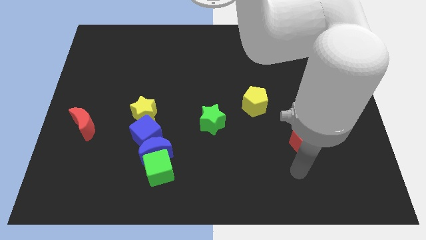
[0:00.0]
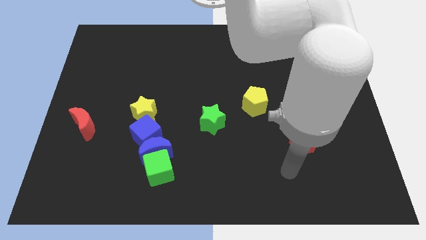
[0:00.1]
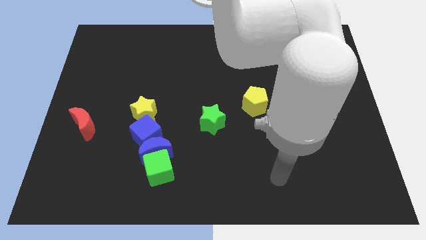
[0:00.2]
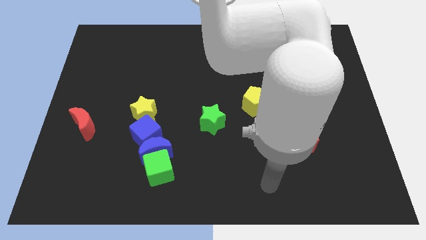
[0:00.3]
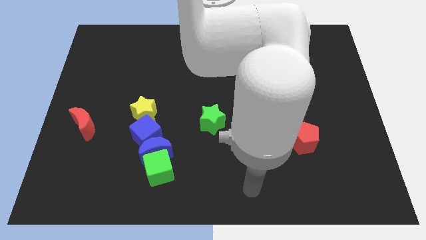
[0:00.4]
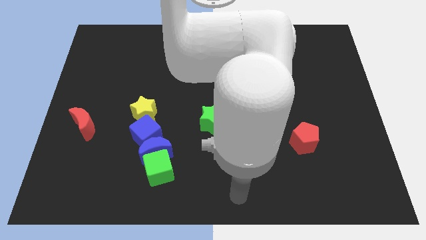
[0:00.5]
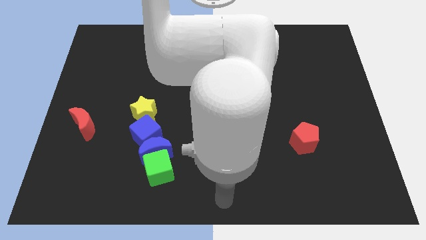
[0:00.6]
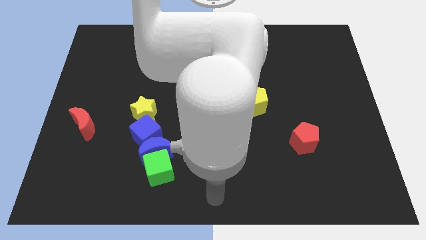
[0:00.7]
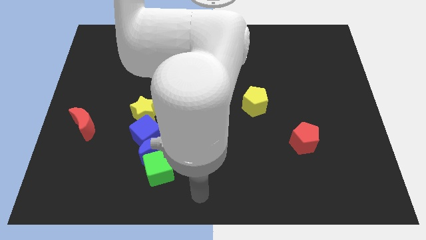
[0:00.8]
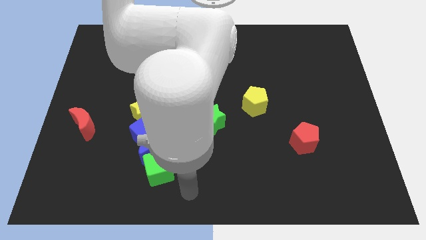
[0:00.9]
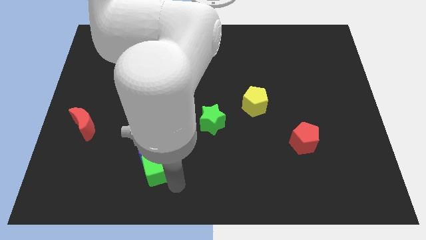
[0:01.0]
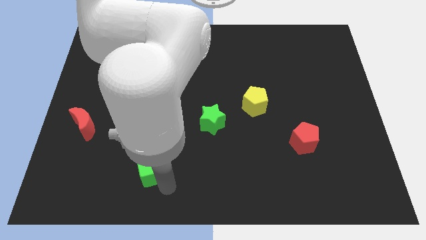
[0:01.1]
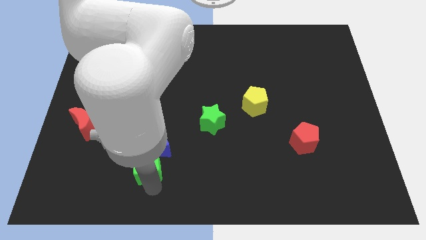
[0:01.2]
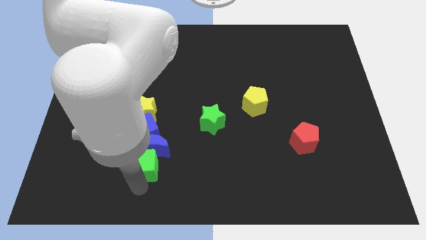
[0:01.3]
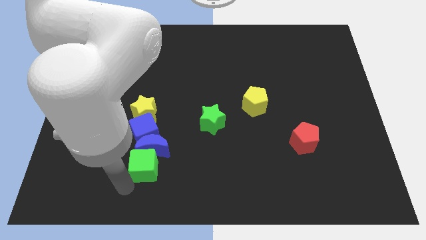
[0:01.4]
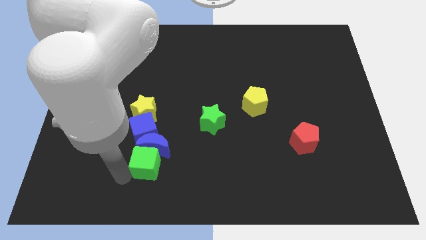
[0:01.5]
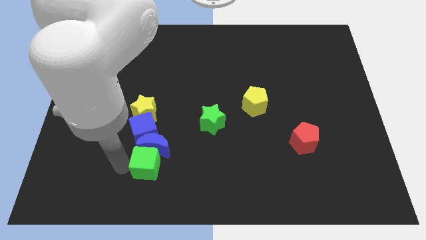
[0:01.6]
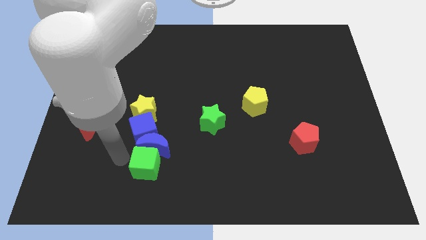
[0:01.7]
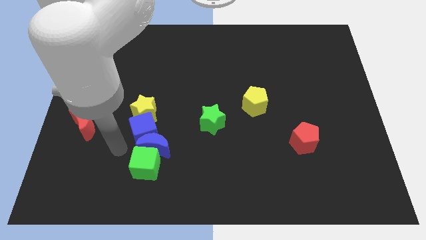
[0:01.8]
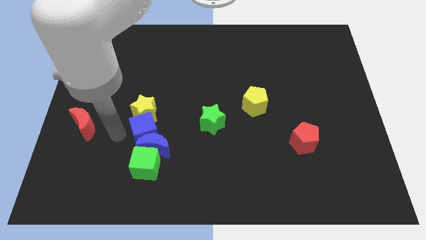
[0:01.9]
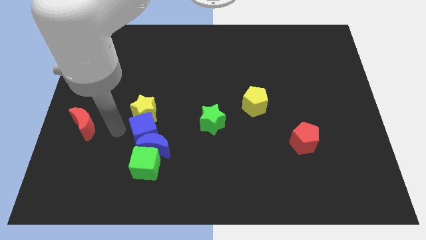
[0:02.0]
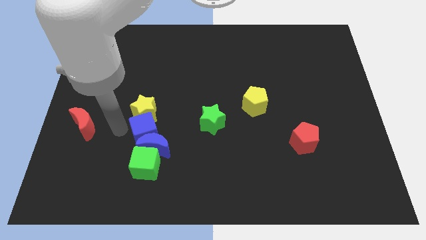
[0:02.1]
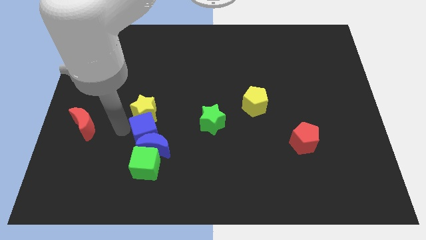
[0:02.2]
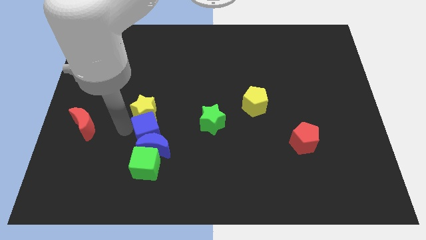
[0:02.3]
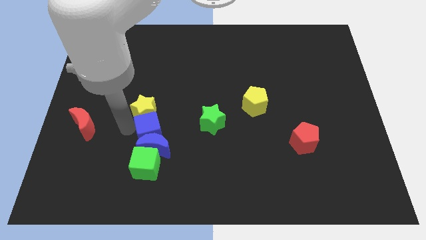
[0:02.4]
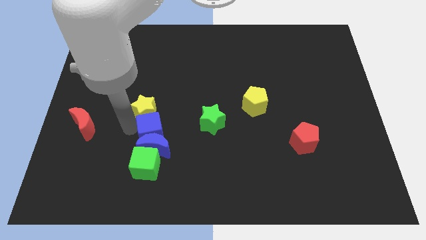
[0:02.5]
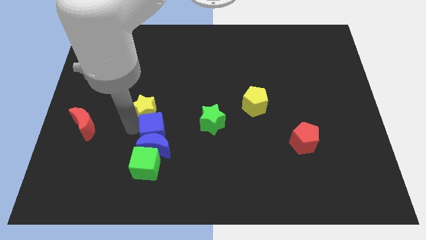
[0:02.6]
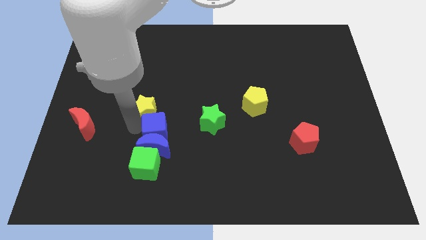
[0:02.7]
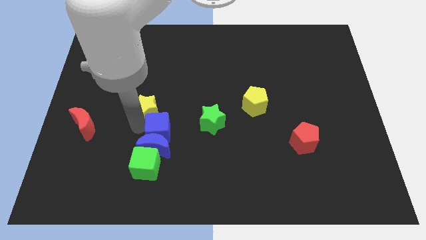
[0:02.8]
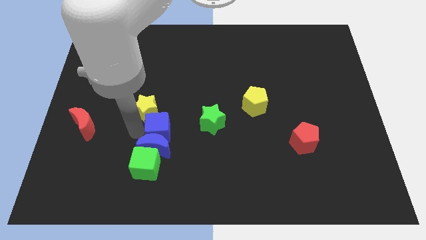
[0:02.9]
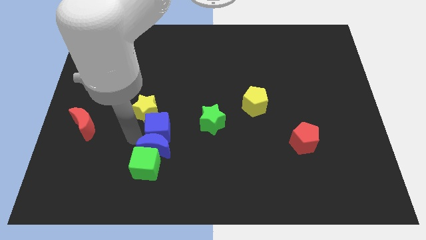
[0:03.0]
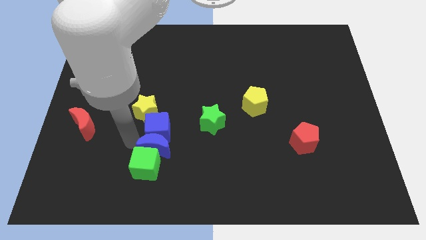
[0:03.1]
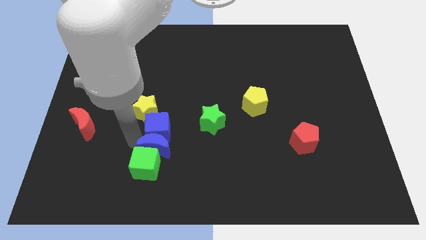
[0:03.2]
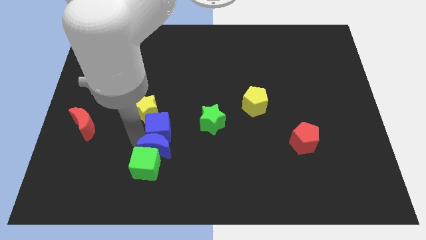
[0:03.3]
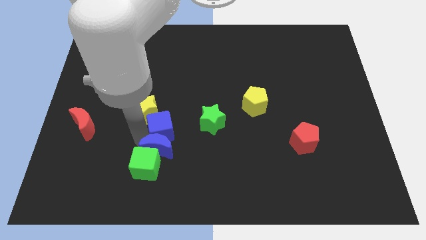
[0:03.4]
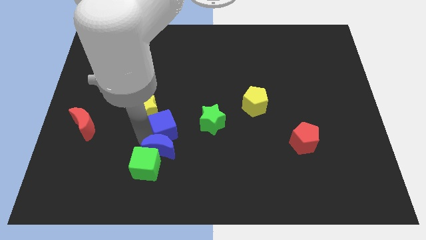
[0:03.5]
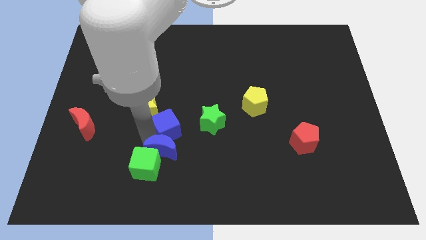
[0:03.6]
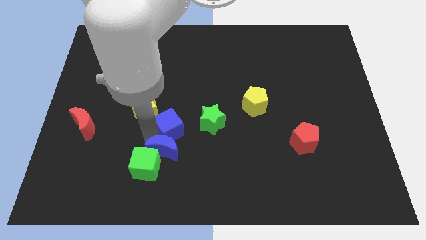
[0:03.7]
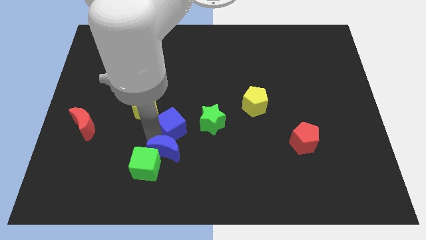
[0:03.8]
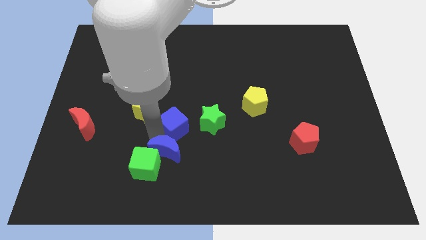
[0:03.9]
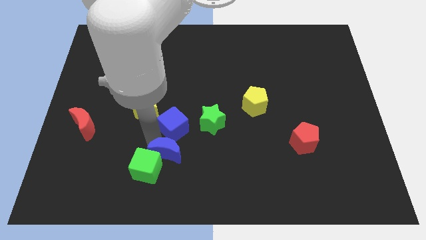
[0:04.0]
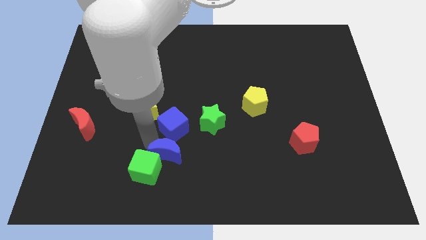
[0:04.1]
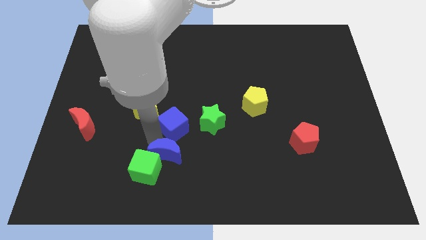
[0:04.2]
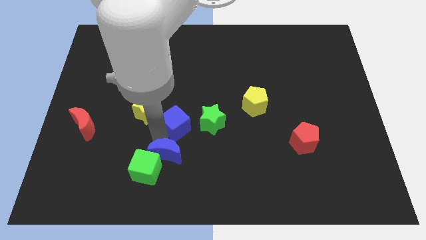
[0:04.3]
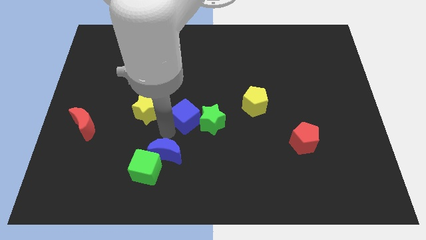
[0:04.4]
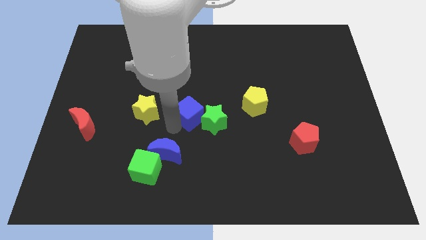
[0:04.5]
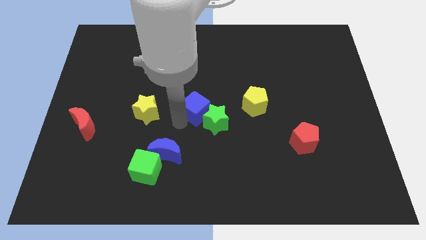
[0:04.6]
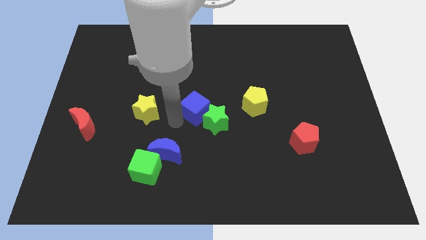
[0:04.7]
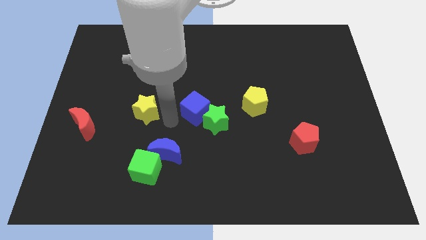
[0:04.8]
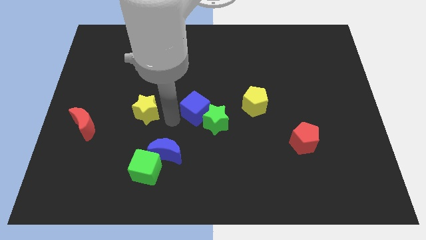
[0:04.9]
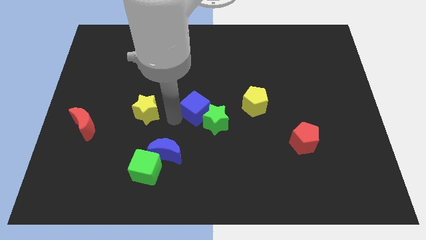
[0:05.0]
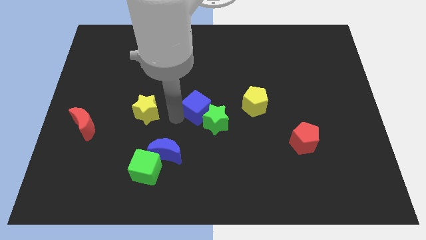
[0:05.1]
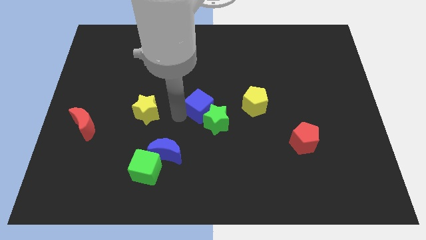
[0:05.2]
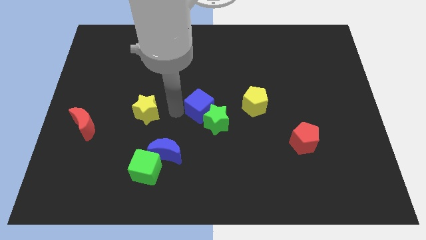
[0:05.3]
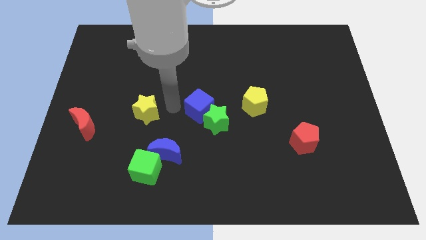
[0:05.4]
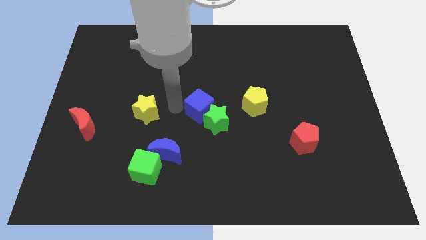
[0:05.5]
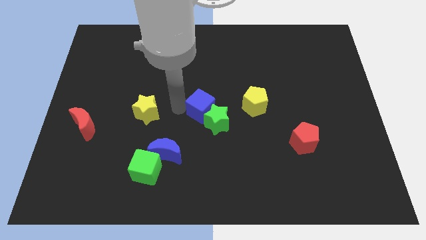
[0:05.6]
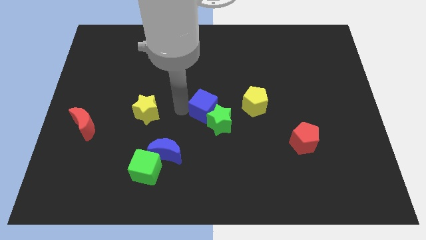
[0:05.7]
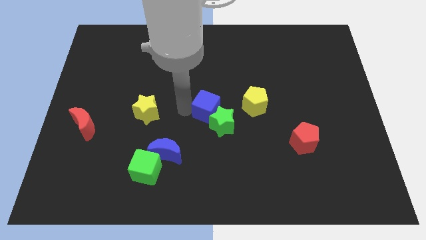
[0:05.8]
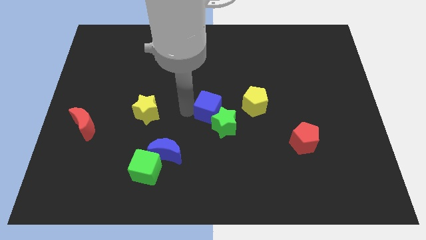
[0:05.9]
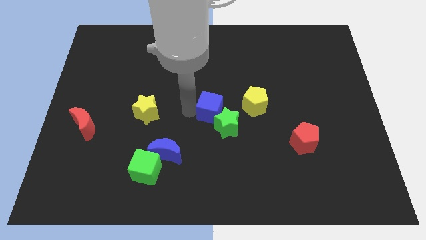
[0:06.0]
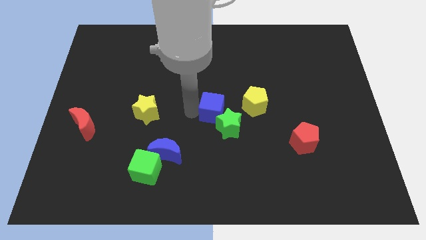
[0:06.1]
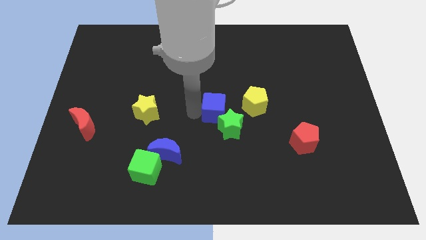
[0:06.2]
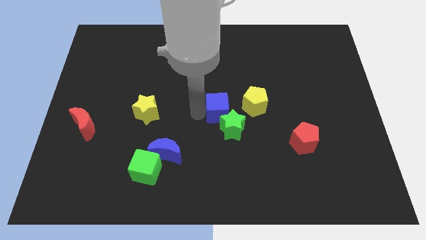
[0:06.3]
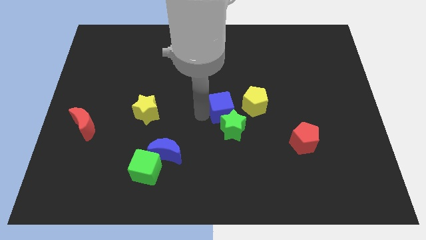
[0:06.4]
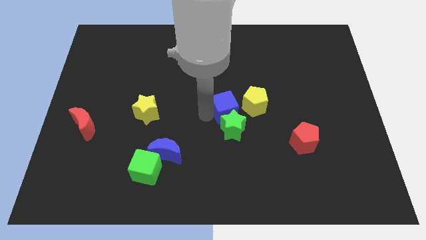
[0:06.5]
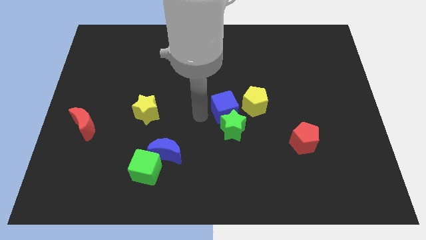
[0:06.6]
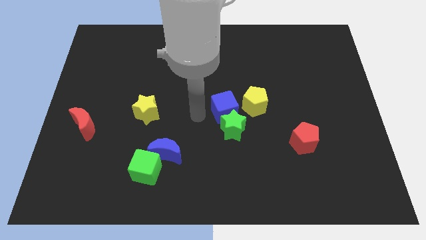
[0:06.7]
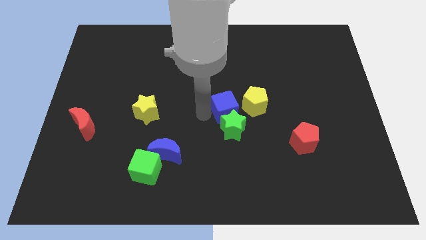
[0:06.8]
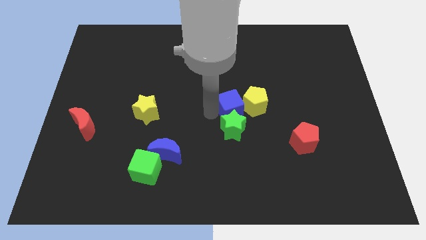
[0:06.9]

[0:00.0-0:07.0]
move the blue cube close to the yellow pentagon

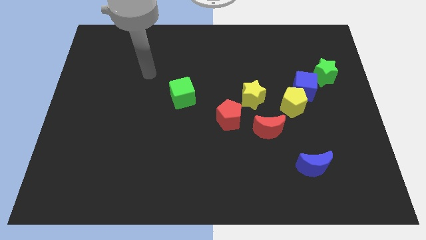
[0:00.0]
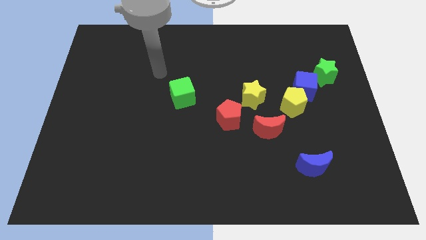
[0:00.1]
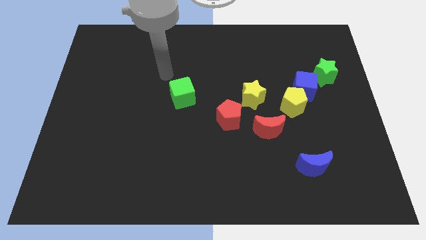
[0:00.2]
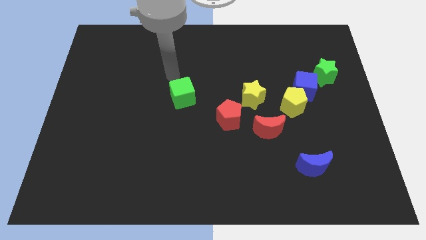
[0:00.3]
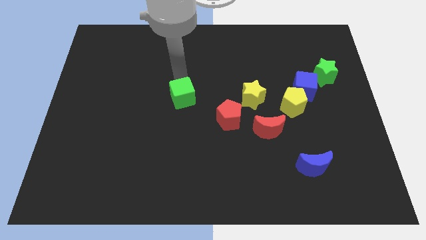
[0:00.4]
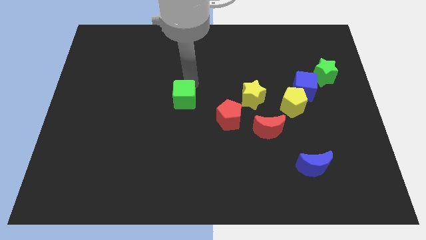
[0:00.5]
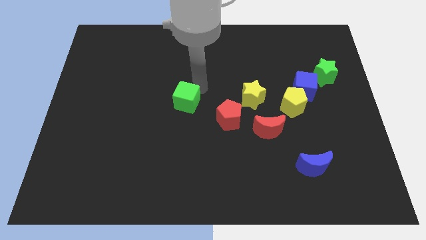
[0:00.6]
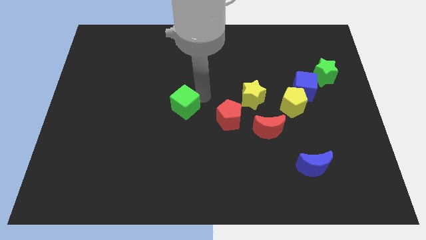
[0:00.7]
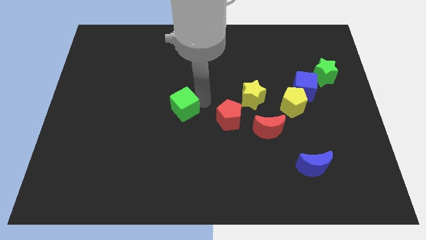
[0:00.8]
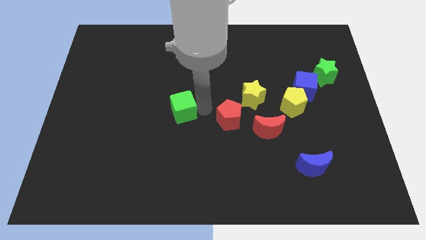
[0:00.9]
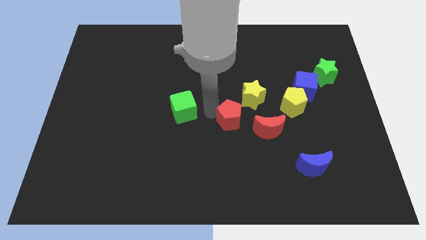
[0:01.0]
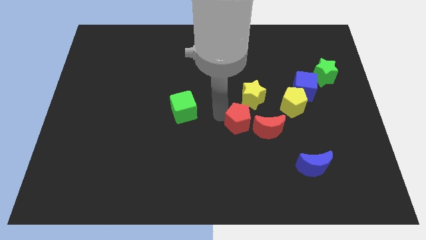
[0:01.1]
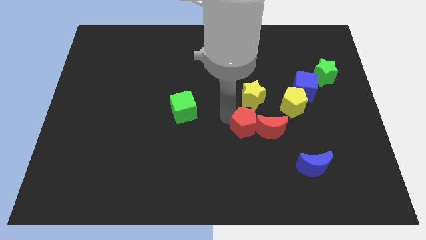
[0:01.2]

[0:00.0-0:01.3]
slide the red pentagon close to the red moon
